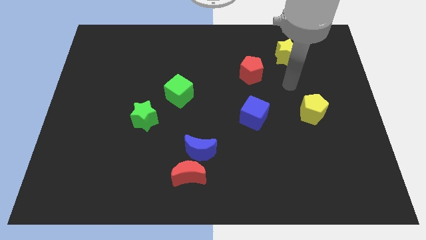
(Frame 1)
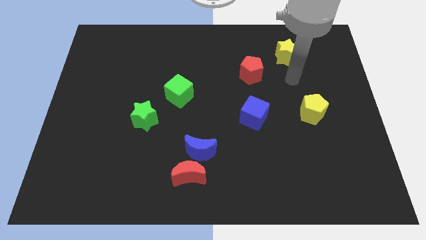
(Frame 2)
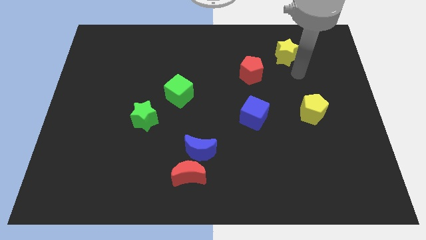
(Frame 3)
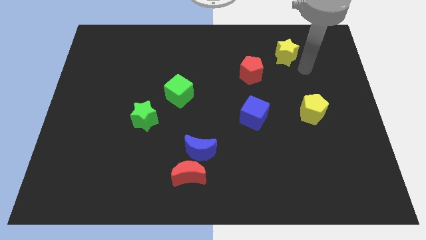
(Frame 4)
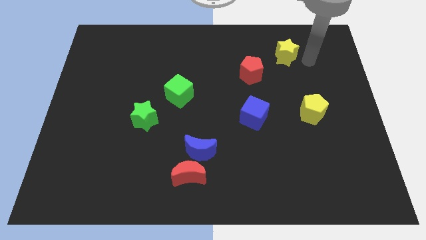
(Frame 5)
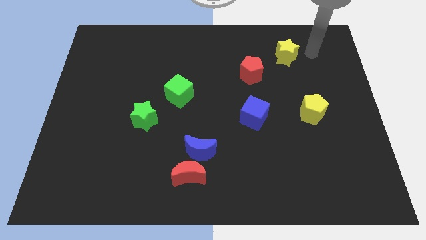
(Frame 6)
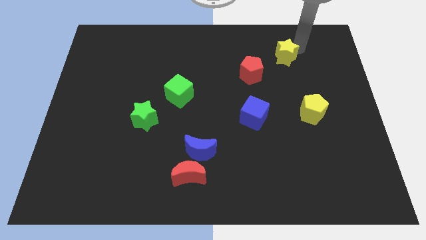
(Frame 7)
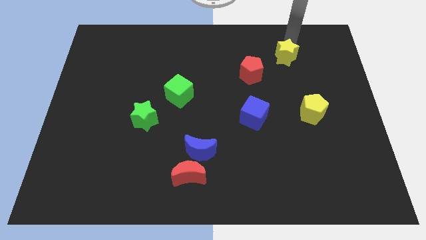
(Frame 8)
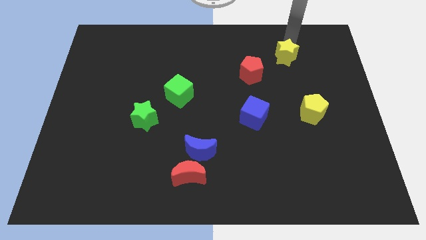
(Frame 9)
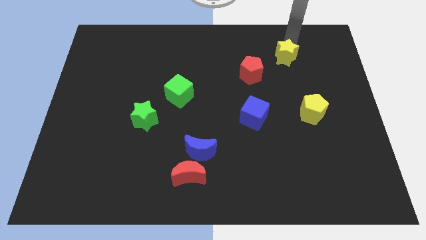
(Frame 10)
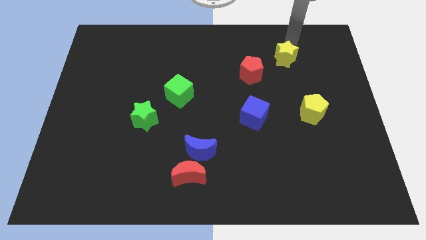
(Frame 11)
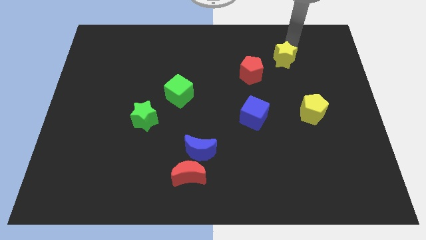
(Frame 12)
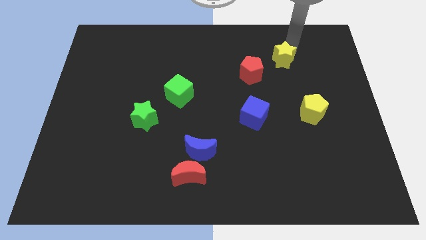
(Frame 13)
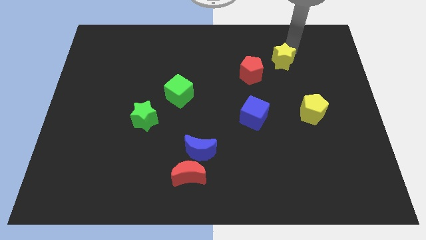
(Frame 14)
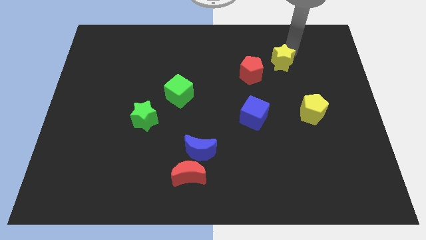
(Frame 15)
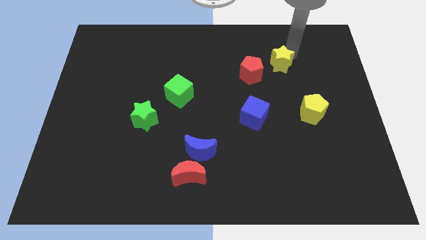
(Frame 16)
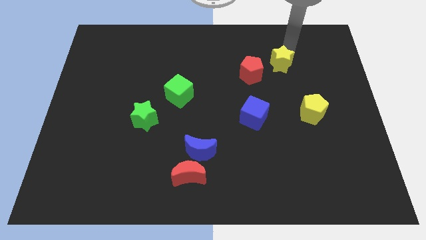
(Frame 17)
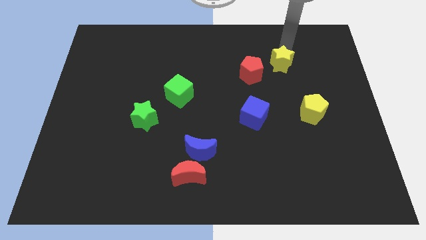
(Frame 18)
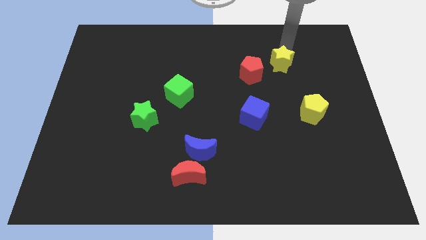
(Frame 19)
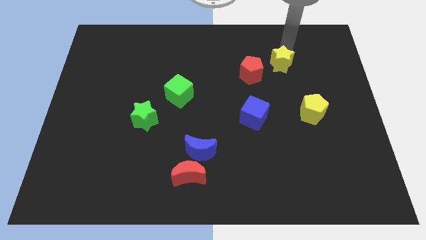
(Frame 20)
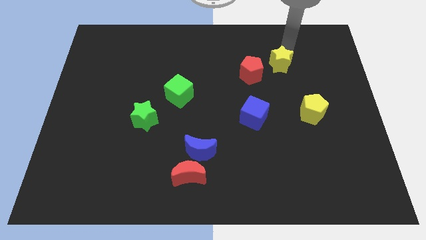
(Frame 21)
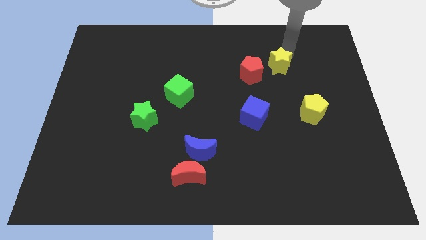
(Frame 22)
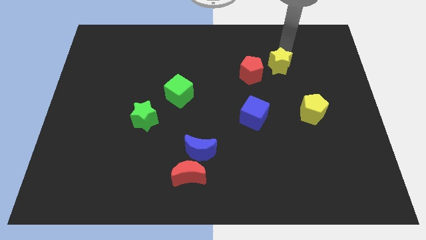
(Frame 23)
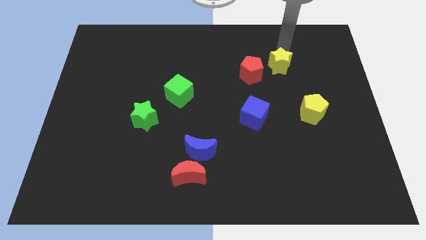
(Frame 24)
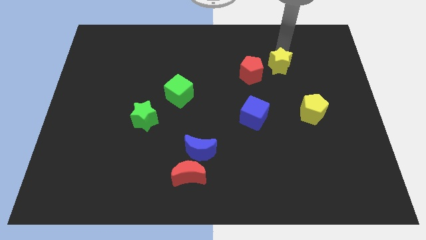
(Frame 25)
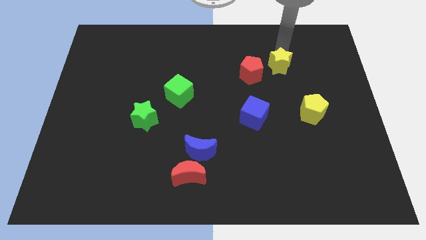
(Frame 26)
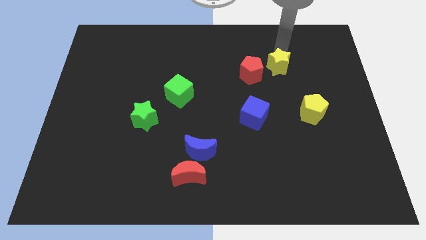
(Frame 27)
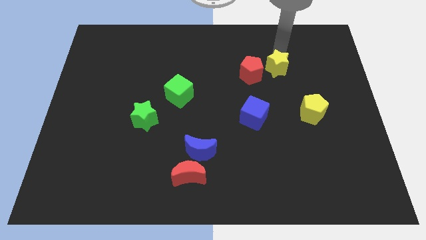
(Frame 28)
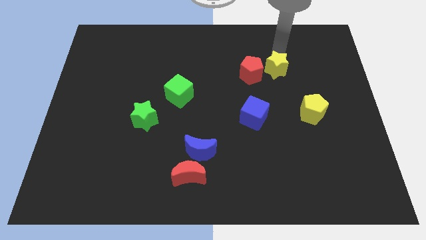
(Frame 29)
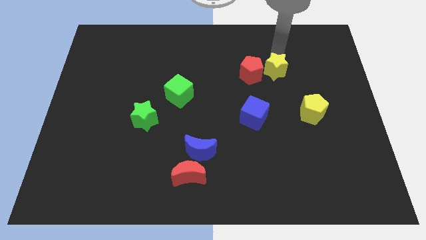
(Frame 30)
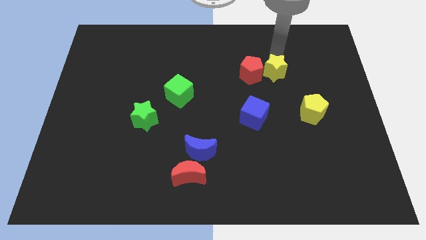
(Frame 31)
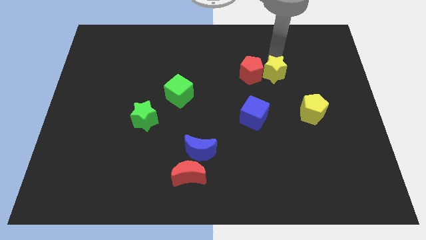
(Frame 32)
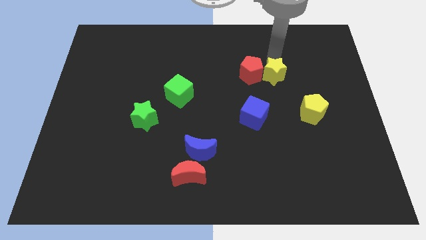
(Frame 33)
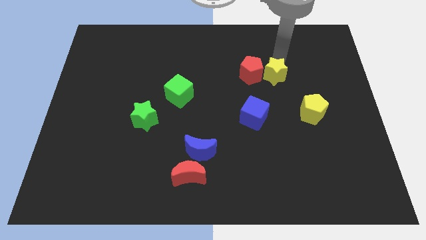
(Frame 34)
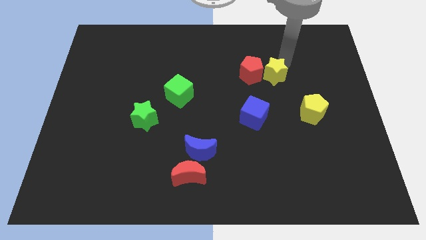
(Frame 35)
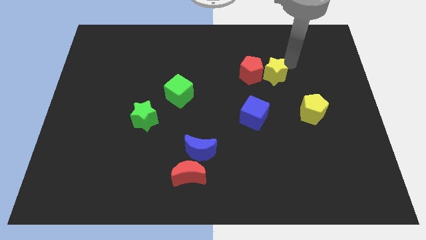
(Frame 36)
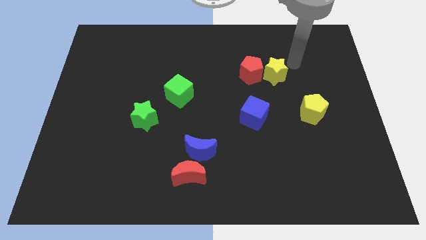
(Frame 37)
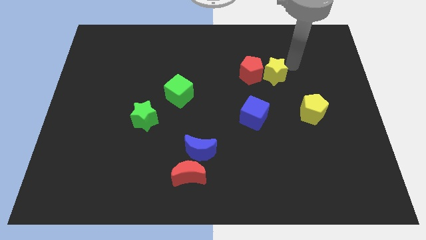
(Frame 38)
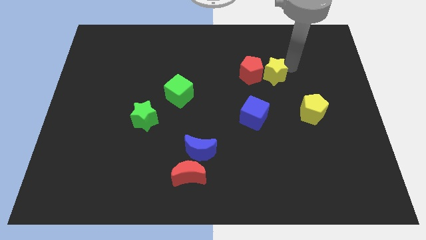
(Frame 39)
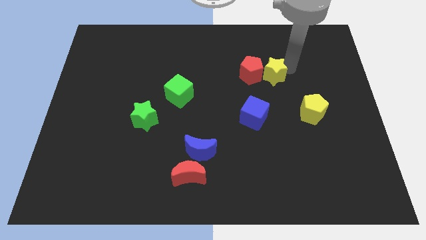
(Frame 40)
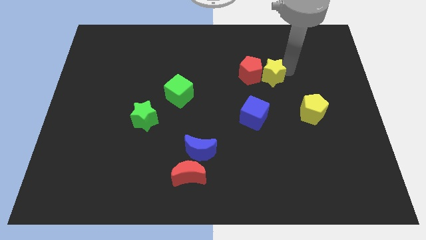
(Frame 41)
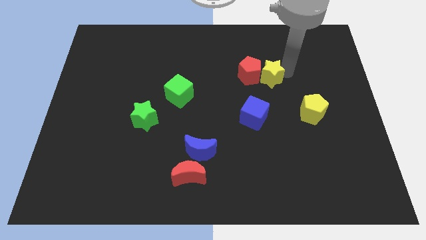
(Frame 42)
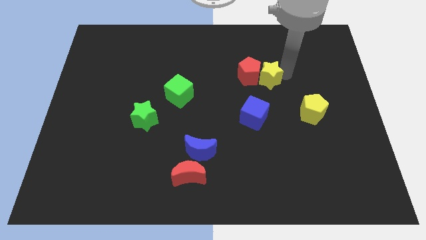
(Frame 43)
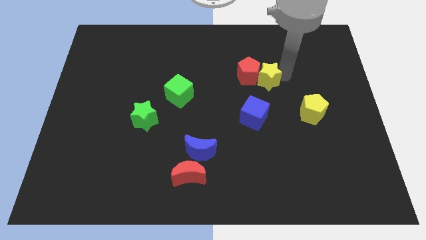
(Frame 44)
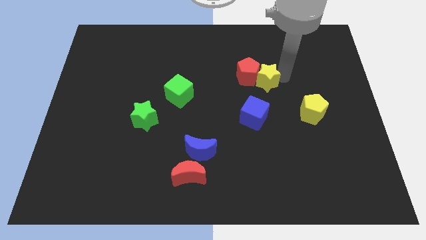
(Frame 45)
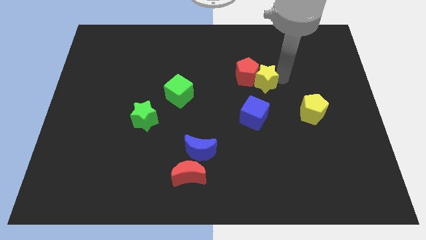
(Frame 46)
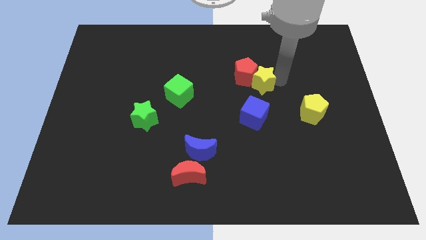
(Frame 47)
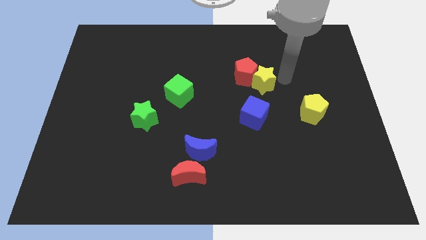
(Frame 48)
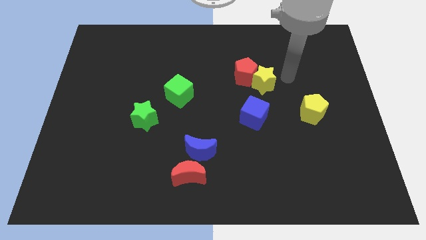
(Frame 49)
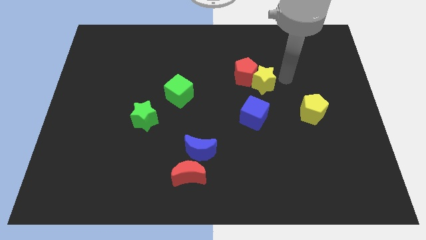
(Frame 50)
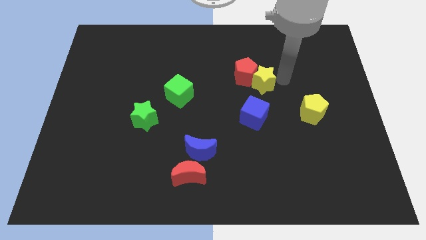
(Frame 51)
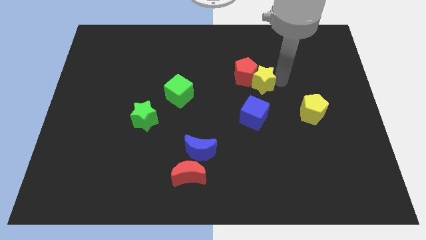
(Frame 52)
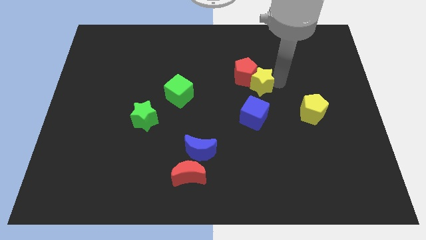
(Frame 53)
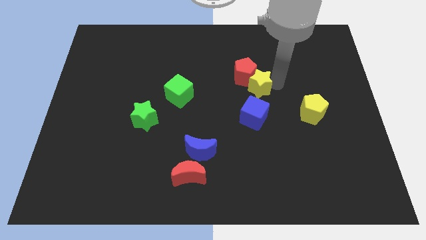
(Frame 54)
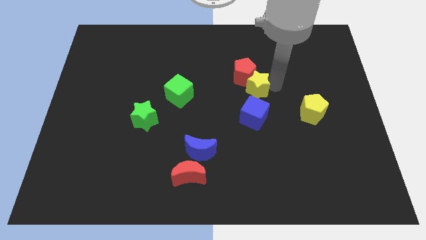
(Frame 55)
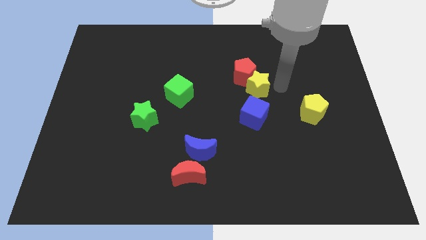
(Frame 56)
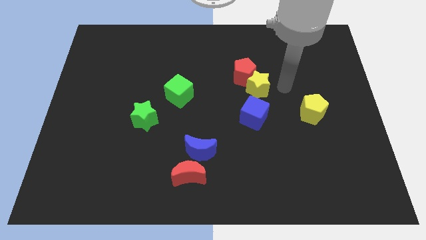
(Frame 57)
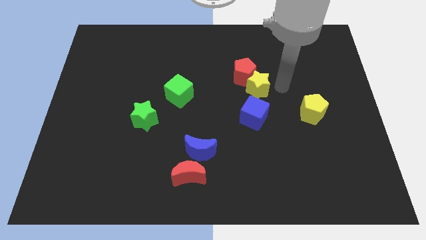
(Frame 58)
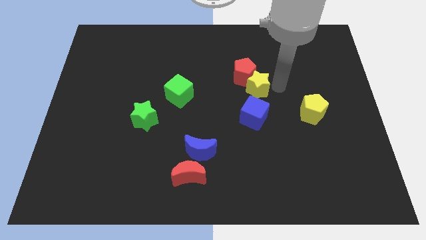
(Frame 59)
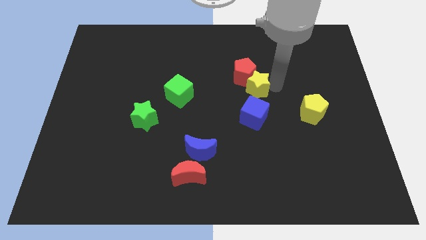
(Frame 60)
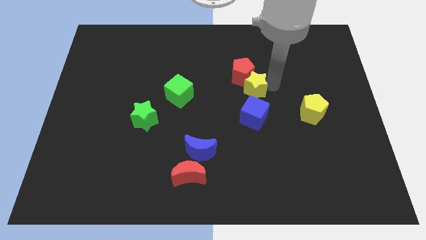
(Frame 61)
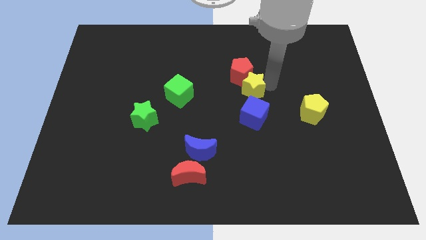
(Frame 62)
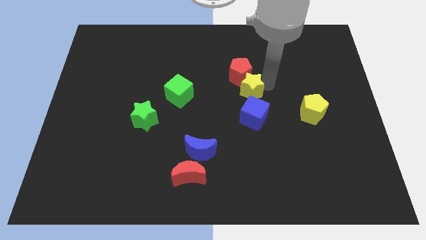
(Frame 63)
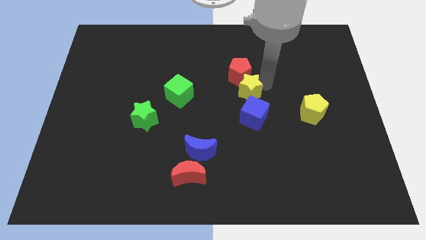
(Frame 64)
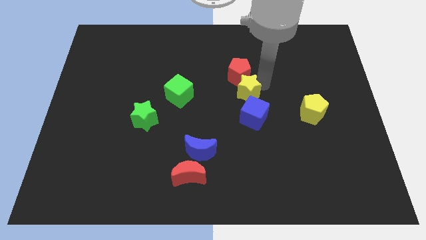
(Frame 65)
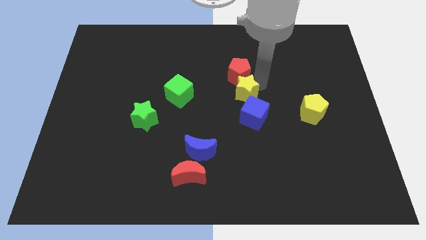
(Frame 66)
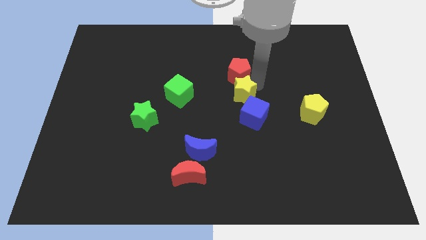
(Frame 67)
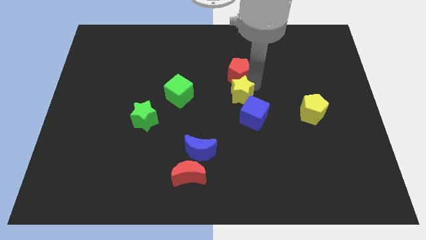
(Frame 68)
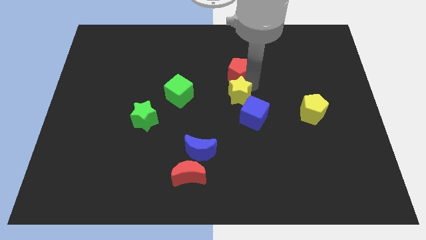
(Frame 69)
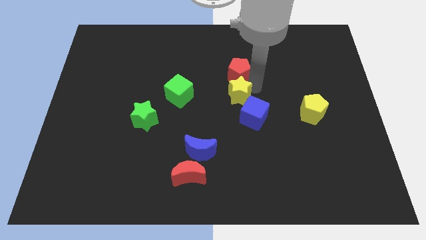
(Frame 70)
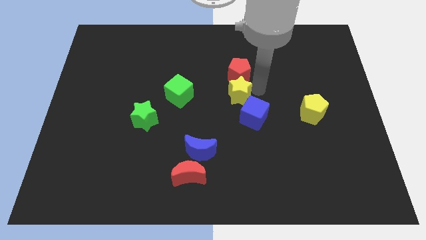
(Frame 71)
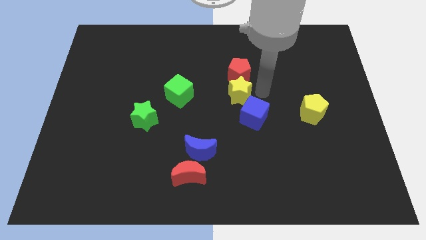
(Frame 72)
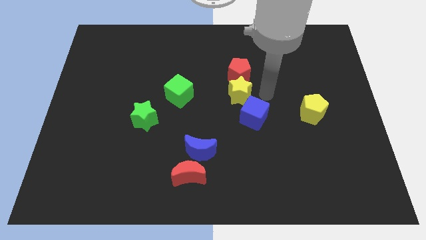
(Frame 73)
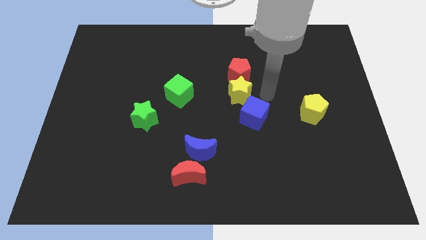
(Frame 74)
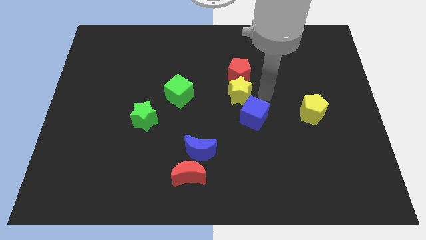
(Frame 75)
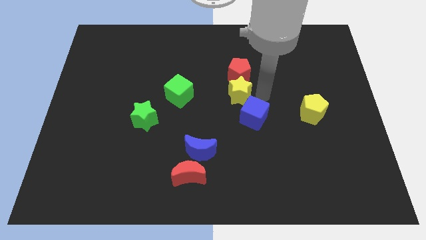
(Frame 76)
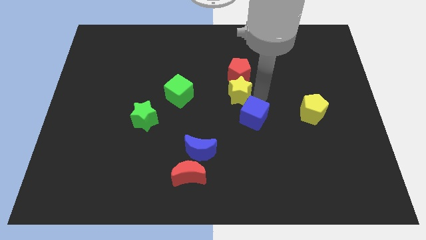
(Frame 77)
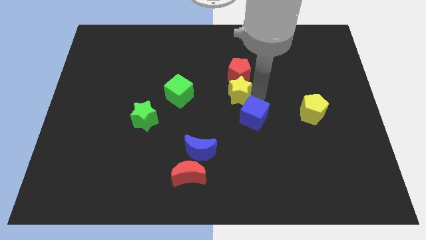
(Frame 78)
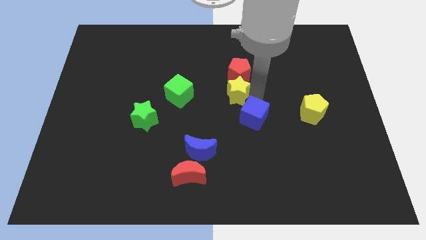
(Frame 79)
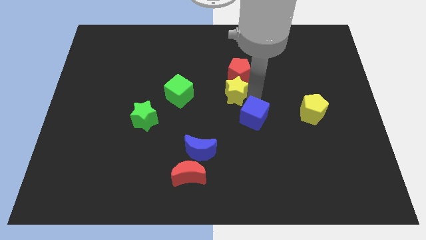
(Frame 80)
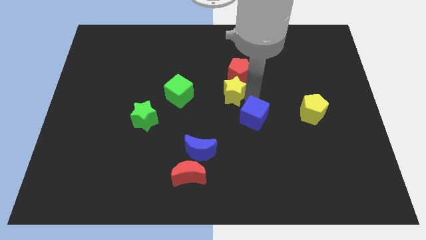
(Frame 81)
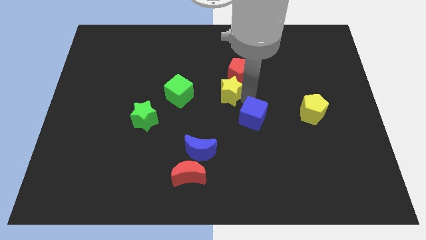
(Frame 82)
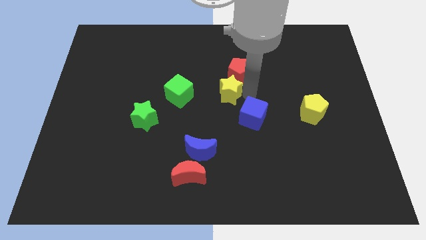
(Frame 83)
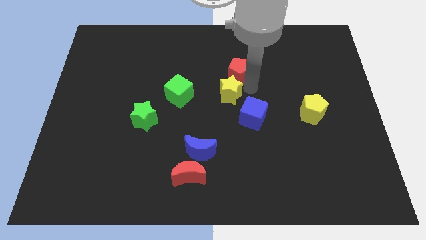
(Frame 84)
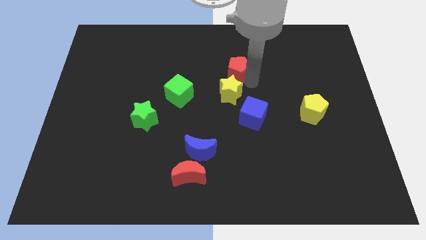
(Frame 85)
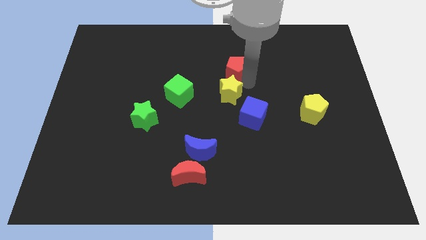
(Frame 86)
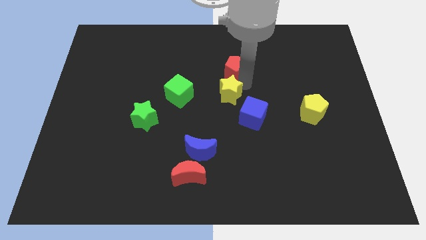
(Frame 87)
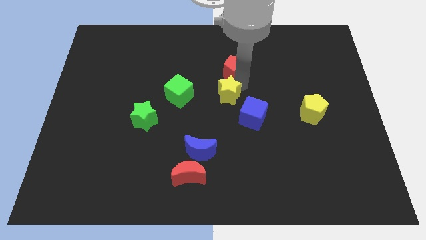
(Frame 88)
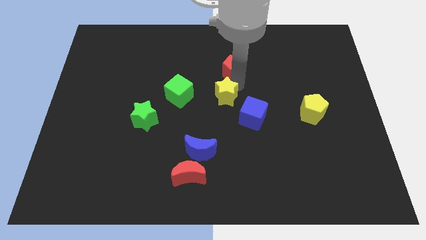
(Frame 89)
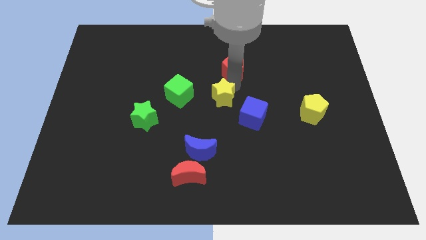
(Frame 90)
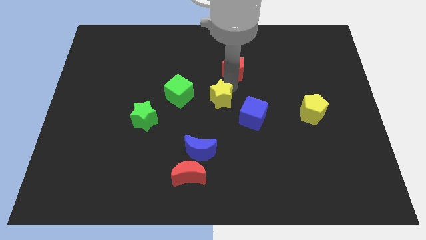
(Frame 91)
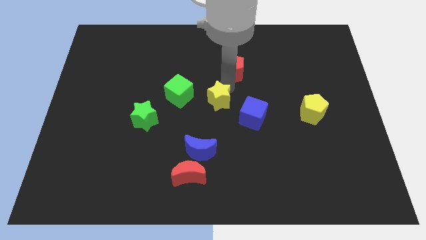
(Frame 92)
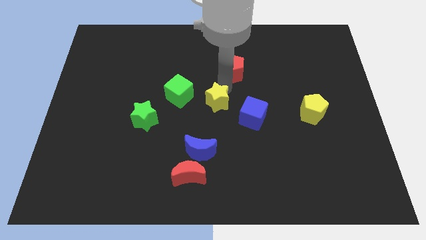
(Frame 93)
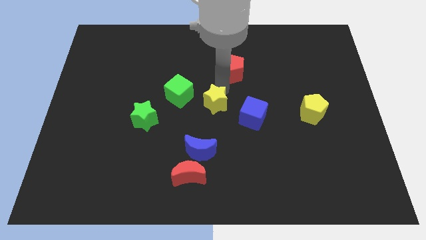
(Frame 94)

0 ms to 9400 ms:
put the yellow star to the bottom right side of the green cube
